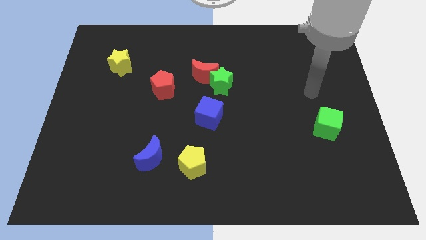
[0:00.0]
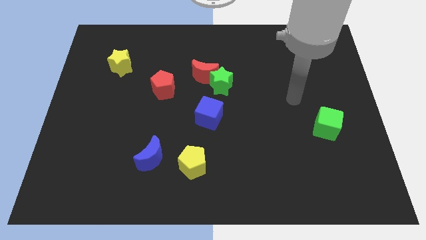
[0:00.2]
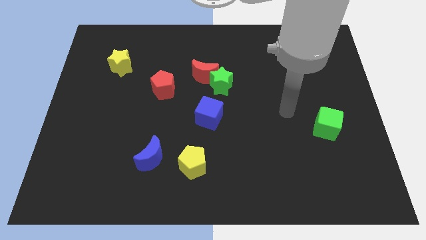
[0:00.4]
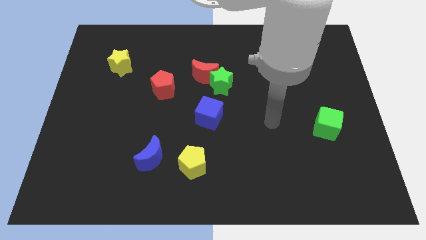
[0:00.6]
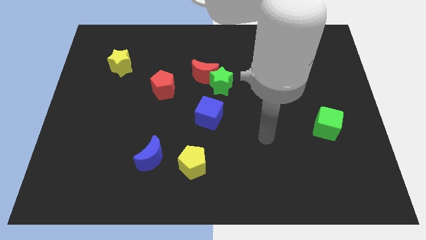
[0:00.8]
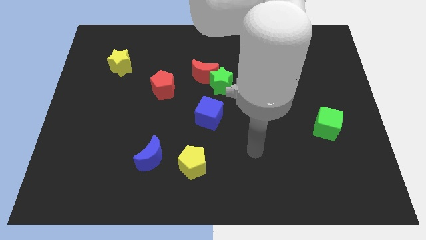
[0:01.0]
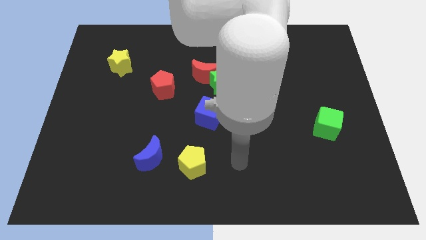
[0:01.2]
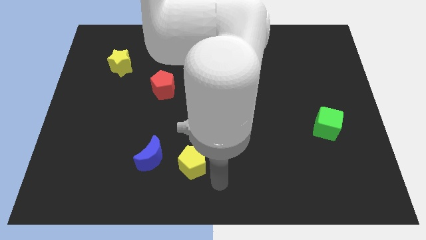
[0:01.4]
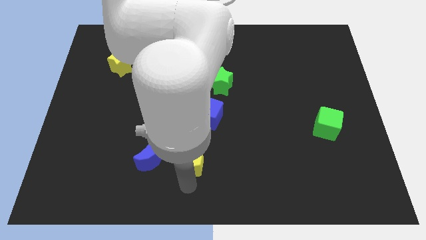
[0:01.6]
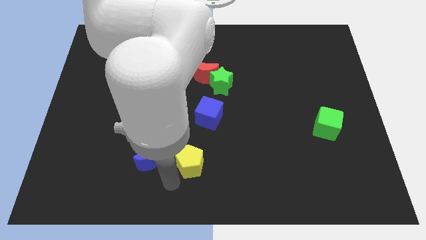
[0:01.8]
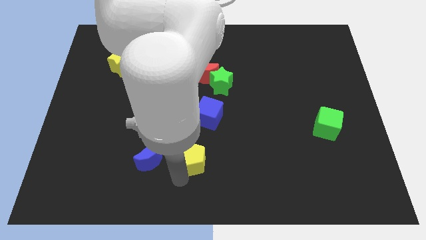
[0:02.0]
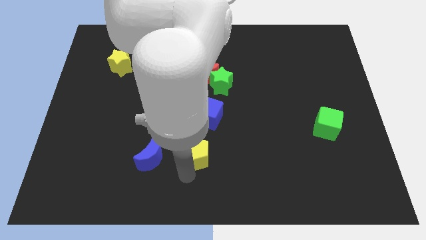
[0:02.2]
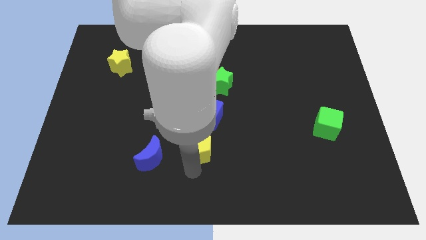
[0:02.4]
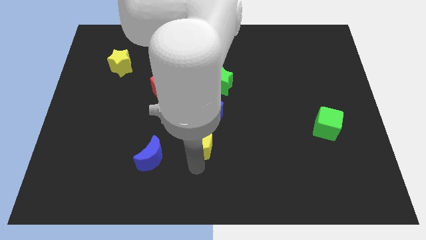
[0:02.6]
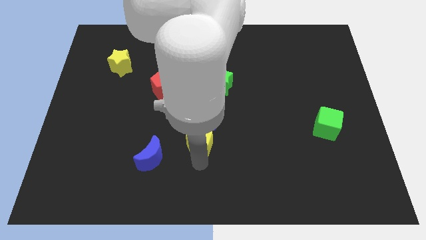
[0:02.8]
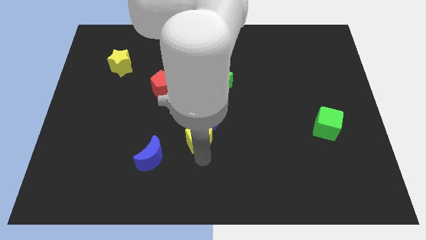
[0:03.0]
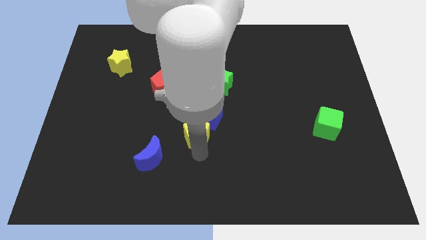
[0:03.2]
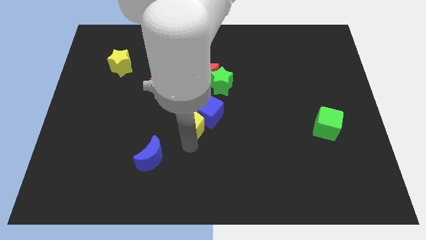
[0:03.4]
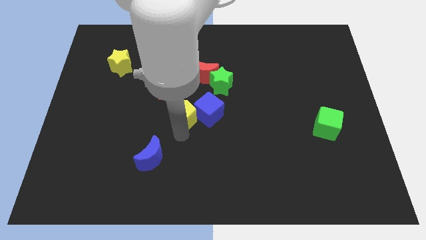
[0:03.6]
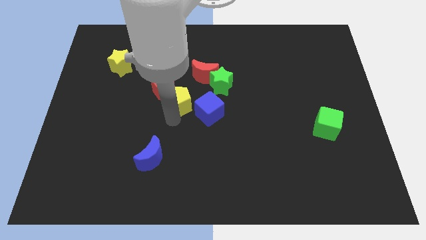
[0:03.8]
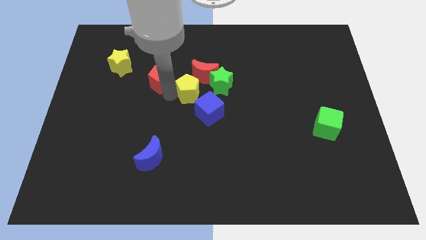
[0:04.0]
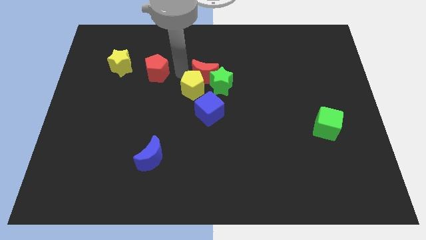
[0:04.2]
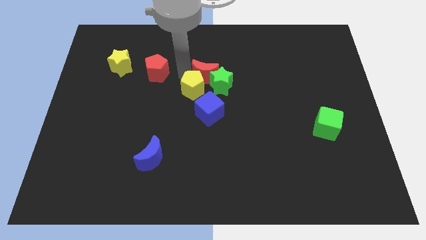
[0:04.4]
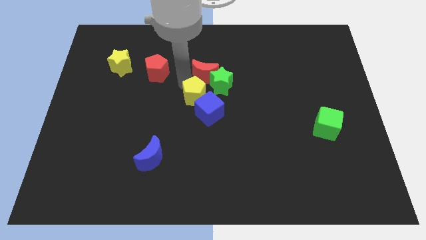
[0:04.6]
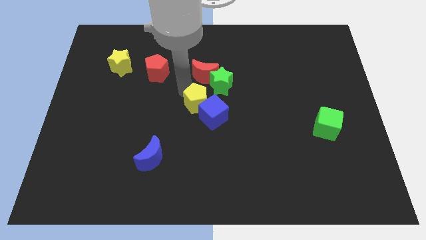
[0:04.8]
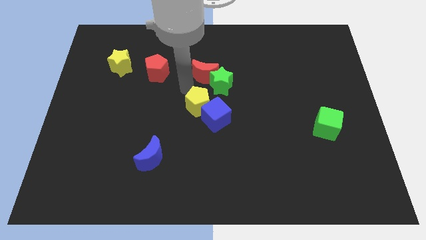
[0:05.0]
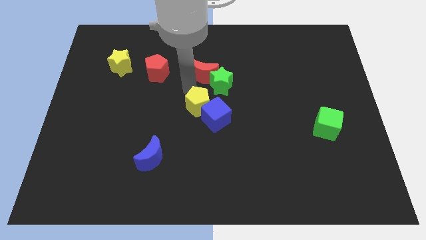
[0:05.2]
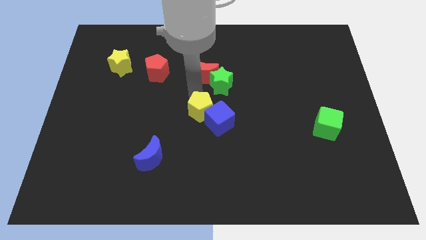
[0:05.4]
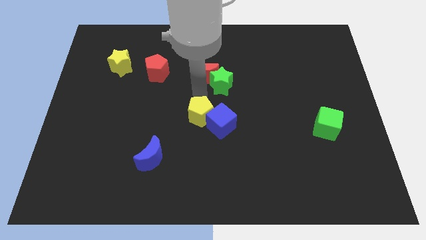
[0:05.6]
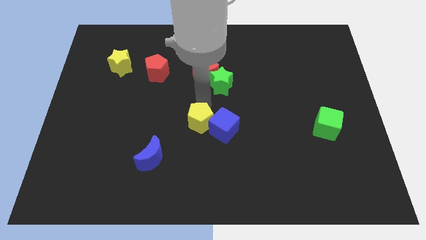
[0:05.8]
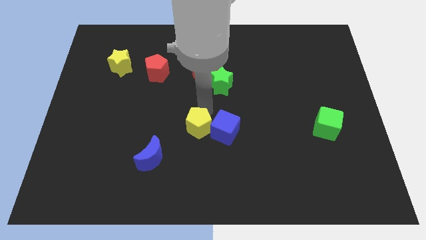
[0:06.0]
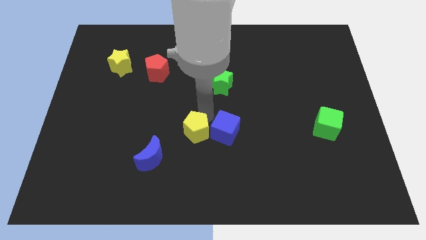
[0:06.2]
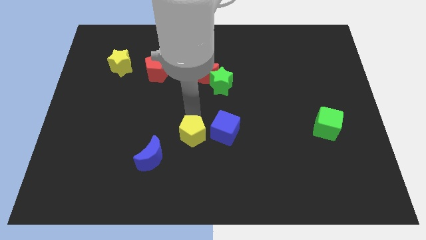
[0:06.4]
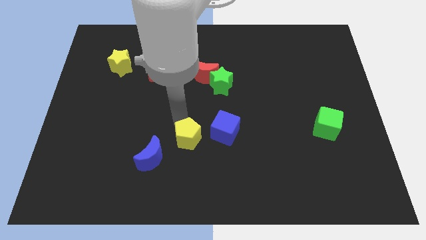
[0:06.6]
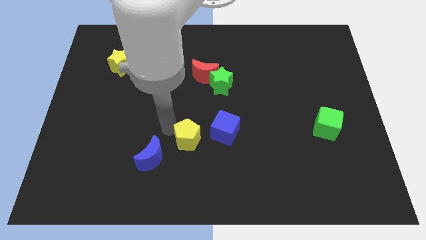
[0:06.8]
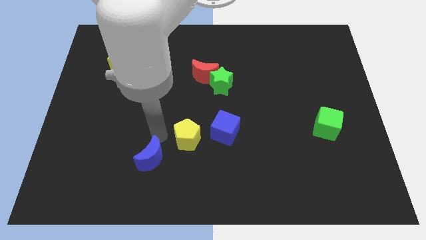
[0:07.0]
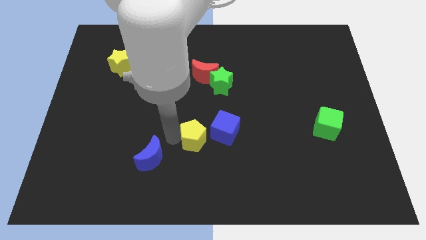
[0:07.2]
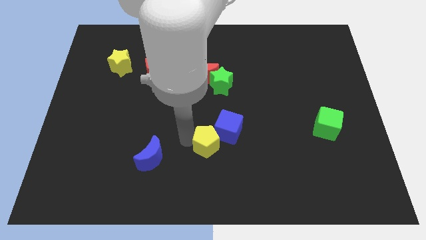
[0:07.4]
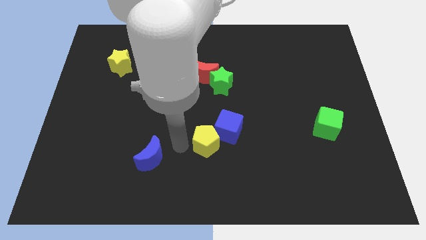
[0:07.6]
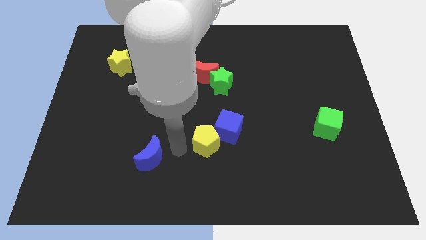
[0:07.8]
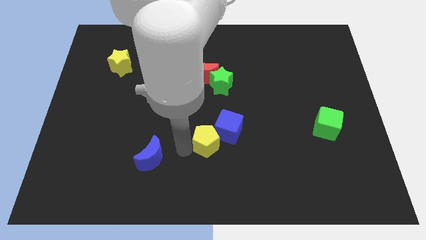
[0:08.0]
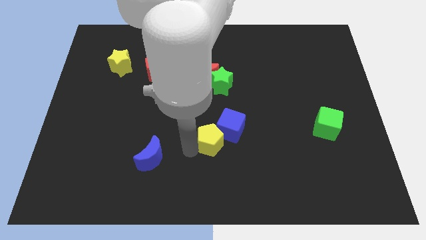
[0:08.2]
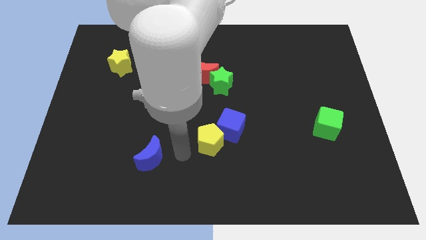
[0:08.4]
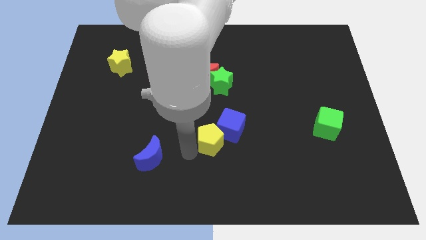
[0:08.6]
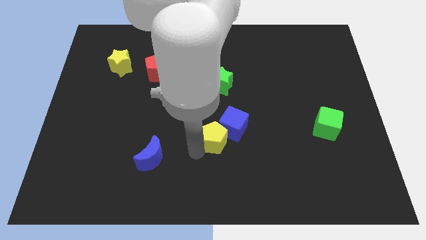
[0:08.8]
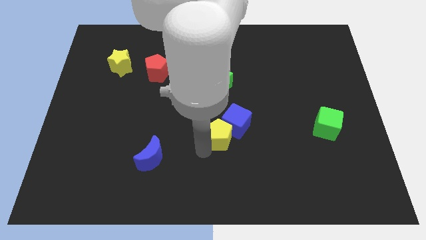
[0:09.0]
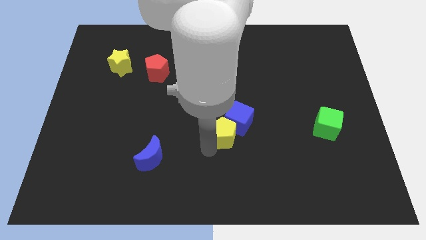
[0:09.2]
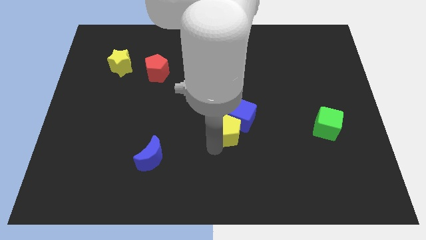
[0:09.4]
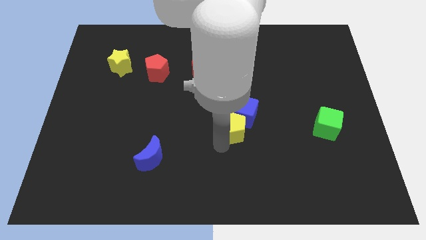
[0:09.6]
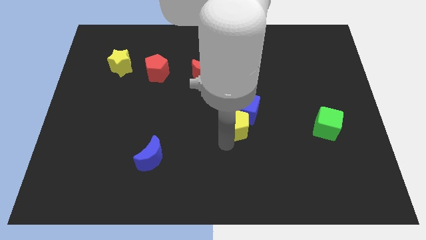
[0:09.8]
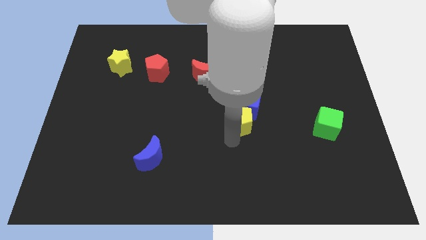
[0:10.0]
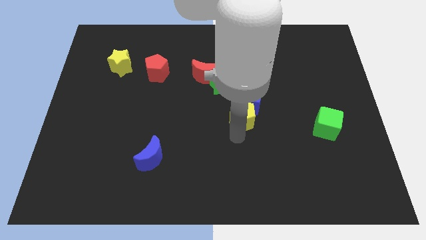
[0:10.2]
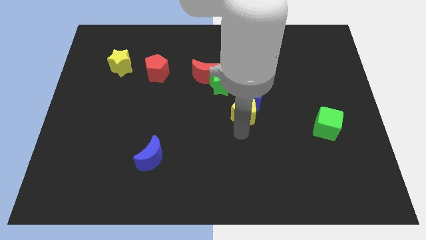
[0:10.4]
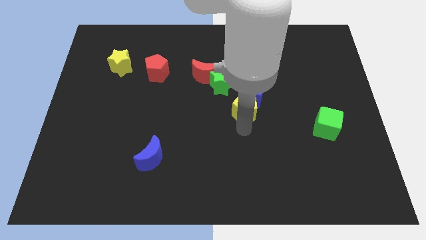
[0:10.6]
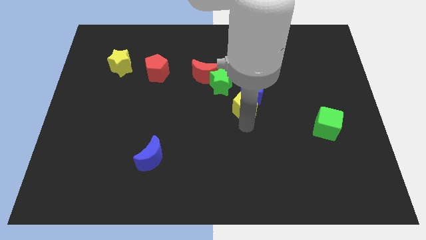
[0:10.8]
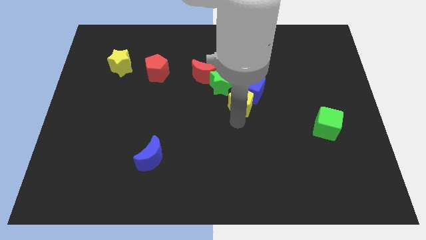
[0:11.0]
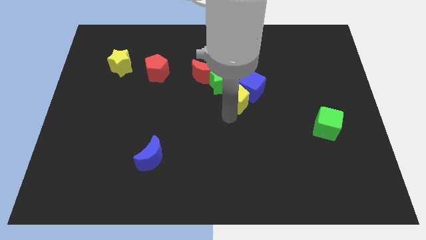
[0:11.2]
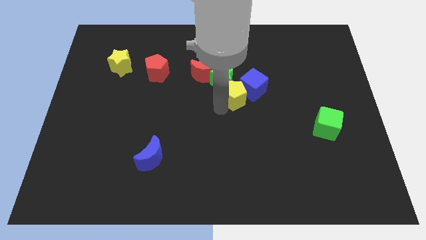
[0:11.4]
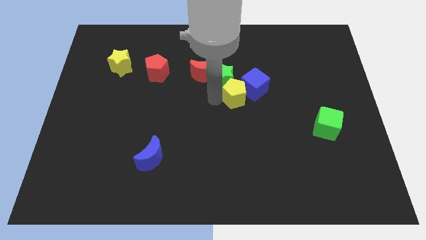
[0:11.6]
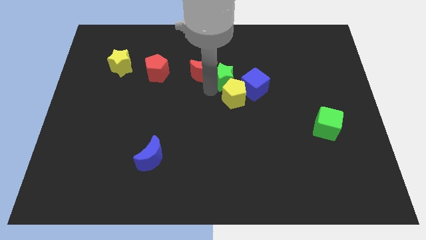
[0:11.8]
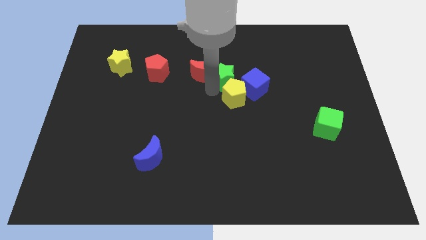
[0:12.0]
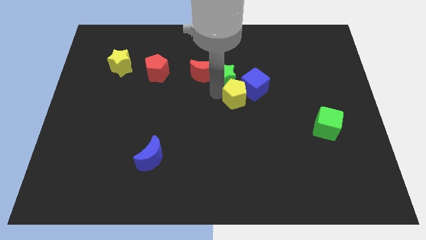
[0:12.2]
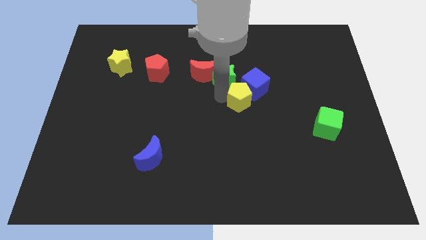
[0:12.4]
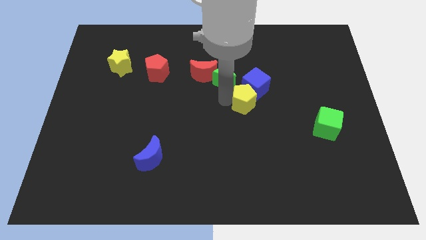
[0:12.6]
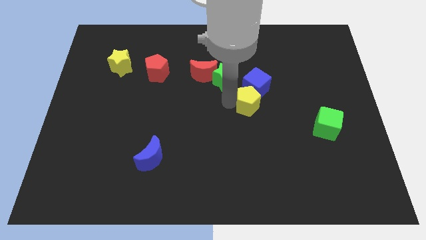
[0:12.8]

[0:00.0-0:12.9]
push the yellow pentagon upwards and then right

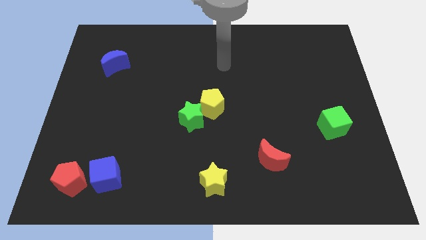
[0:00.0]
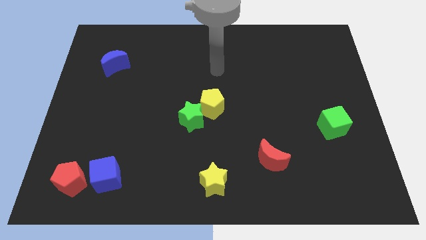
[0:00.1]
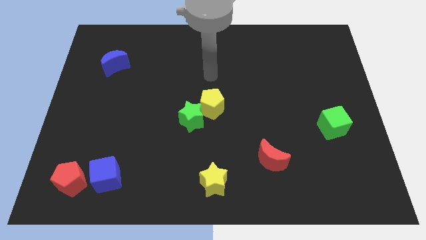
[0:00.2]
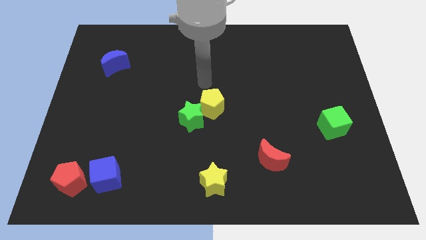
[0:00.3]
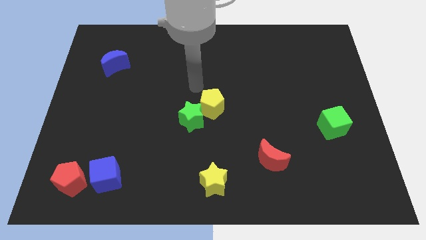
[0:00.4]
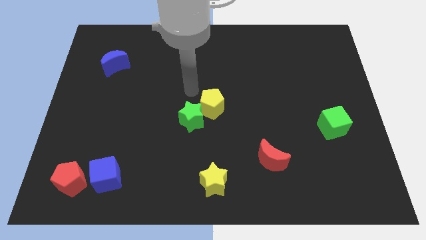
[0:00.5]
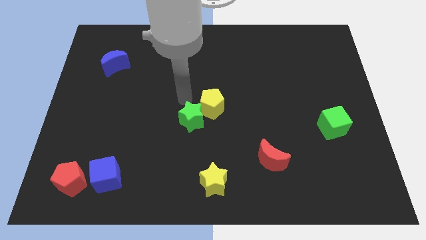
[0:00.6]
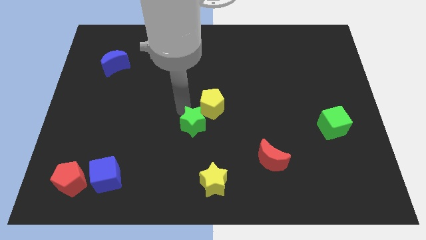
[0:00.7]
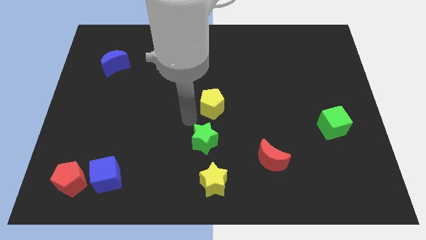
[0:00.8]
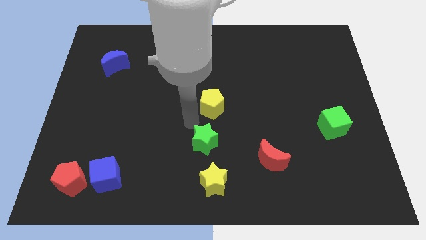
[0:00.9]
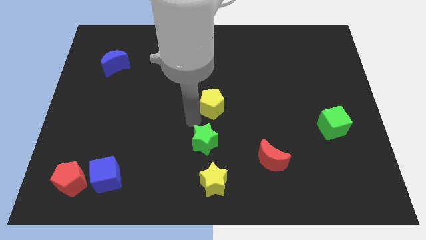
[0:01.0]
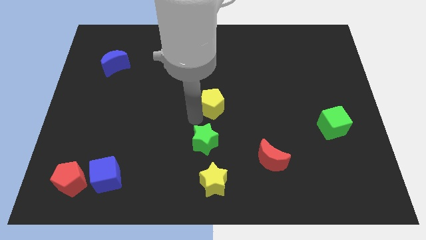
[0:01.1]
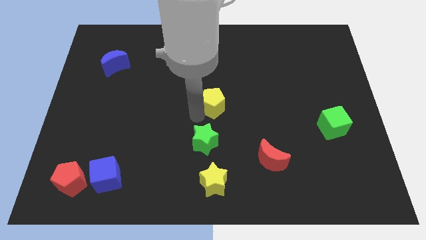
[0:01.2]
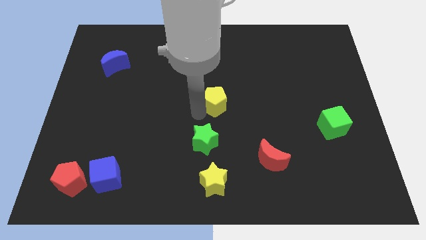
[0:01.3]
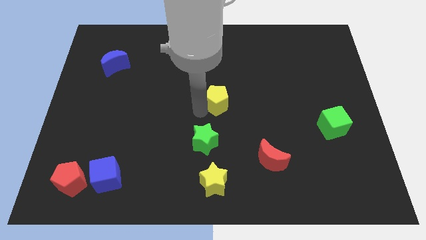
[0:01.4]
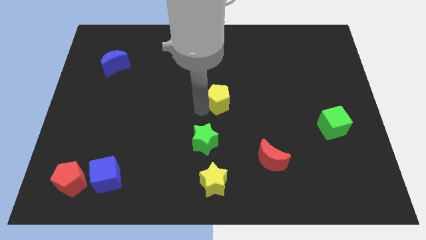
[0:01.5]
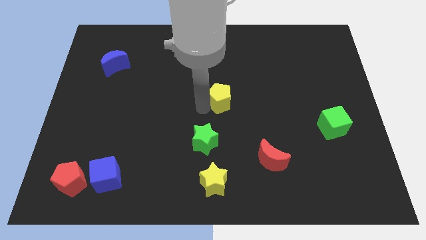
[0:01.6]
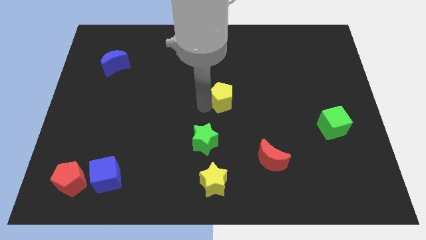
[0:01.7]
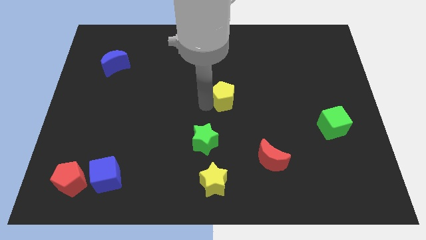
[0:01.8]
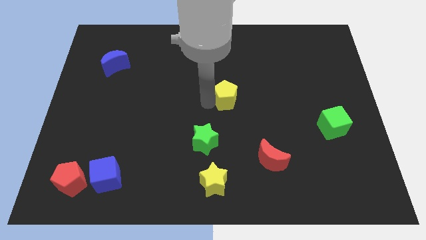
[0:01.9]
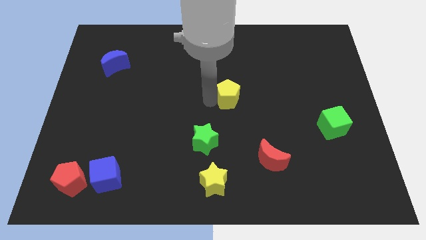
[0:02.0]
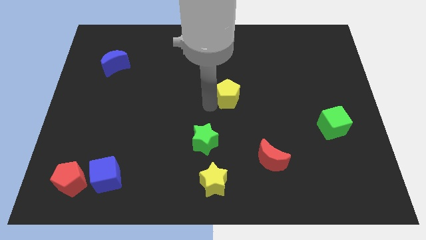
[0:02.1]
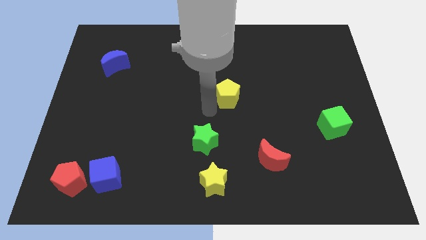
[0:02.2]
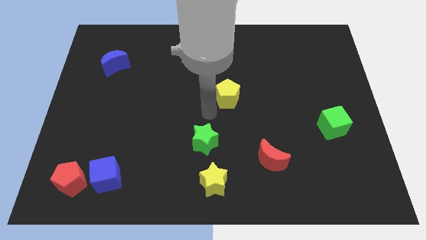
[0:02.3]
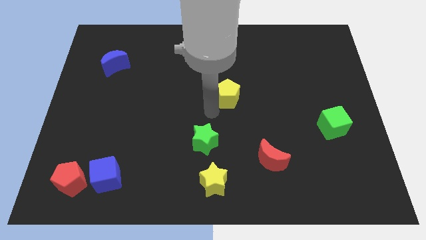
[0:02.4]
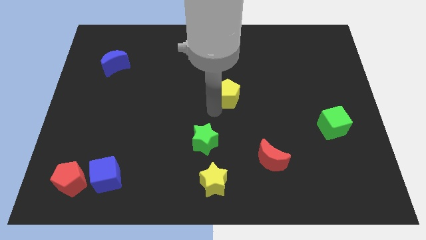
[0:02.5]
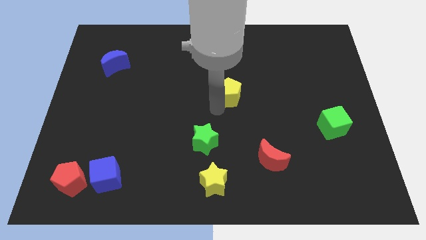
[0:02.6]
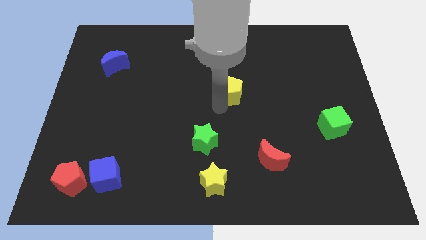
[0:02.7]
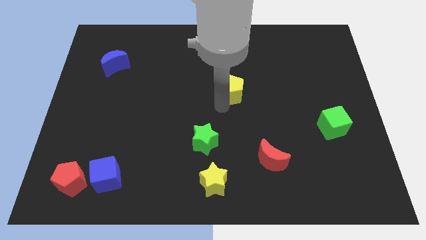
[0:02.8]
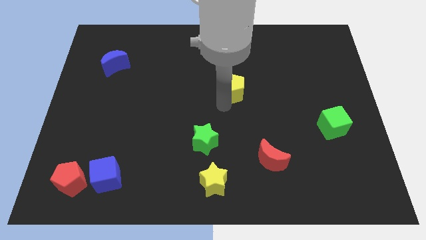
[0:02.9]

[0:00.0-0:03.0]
push the yellow pentagon a bit upwards and to the right
